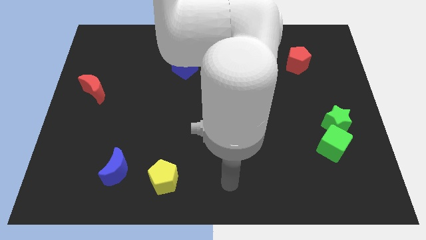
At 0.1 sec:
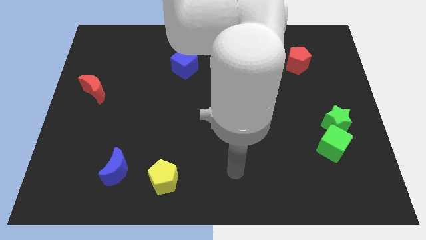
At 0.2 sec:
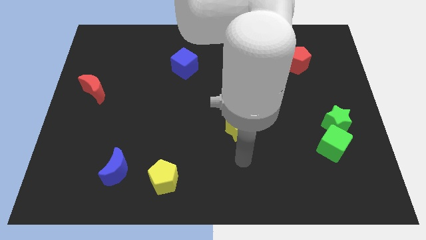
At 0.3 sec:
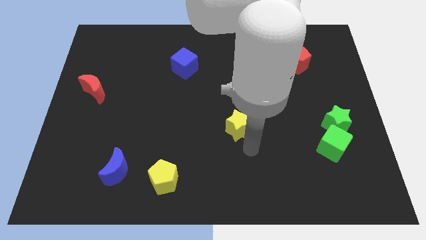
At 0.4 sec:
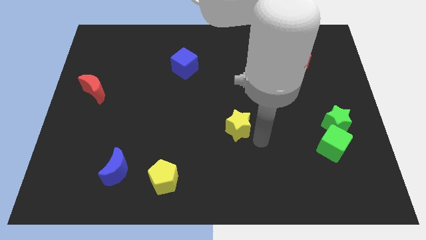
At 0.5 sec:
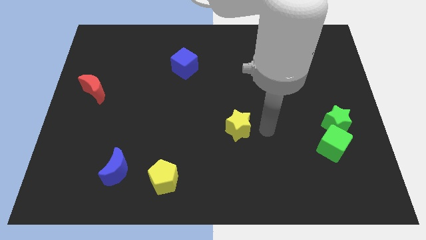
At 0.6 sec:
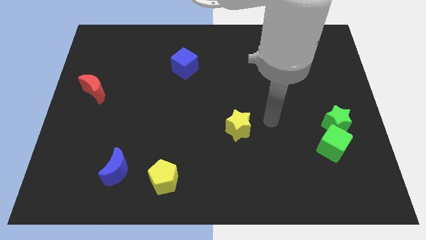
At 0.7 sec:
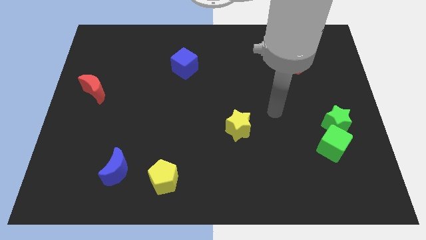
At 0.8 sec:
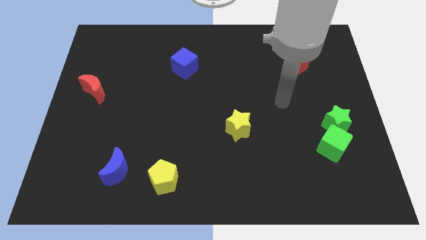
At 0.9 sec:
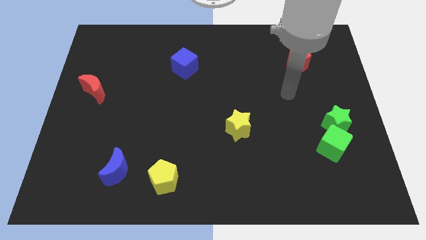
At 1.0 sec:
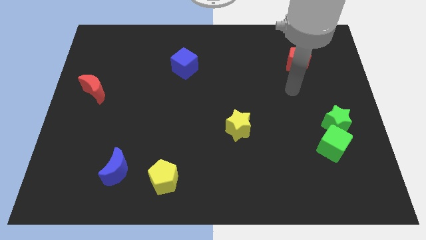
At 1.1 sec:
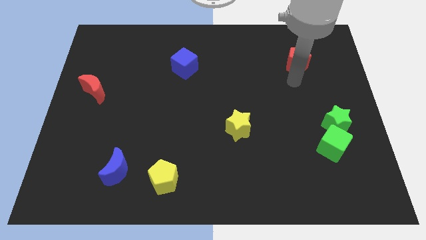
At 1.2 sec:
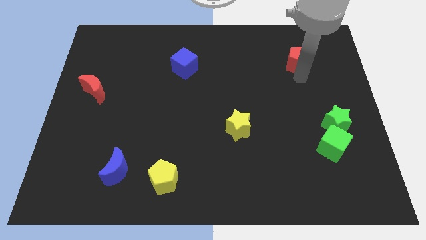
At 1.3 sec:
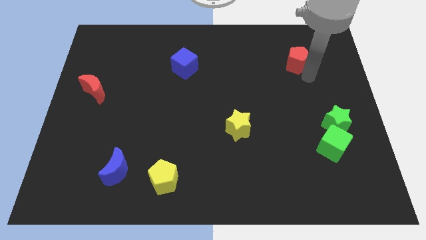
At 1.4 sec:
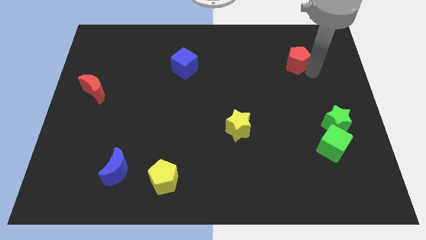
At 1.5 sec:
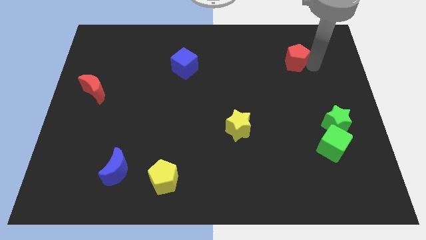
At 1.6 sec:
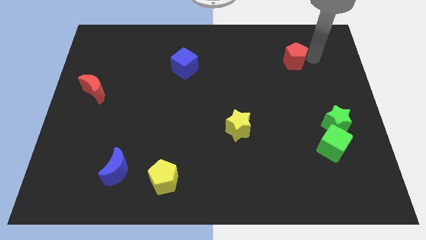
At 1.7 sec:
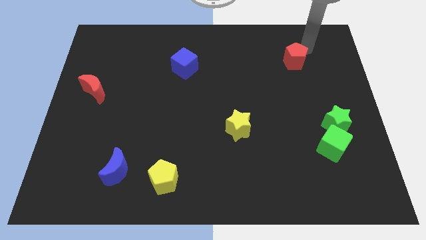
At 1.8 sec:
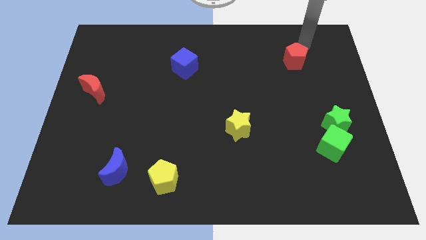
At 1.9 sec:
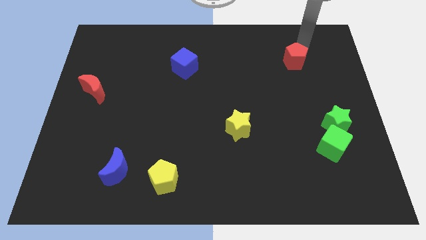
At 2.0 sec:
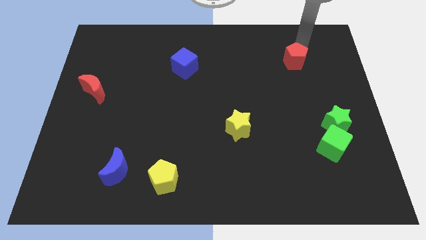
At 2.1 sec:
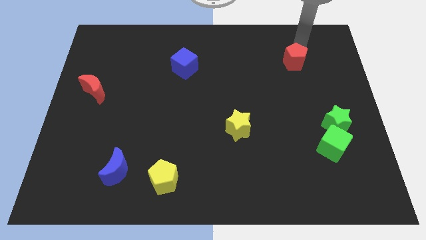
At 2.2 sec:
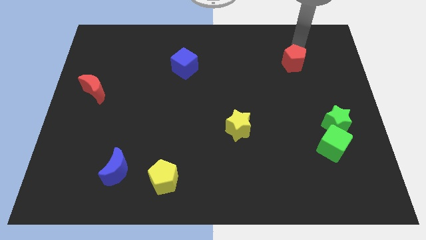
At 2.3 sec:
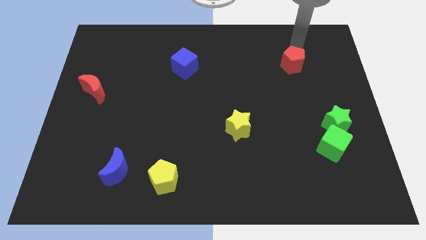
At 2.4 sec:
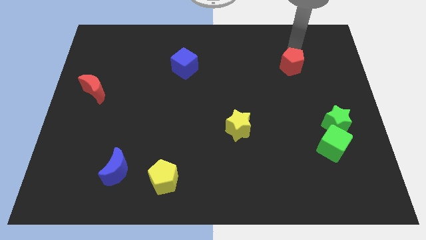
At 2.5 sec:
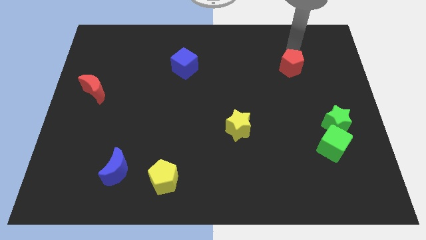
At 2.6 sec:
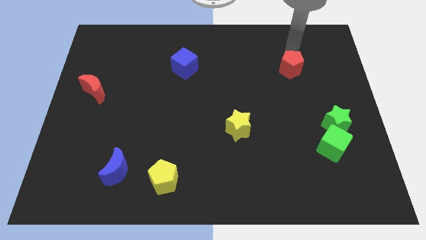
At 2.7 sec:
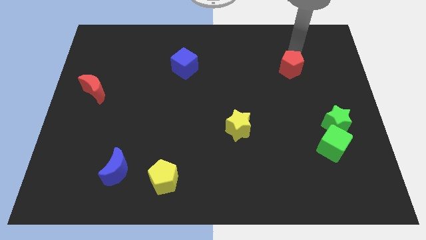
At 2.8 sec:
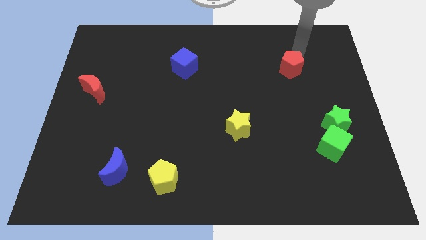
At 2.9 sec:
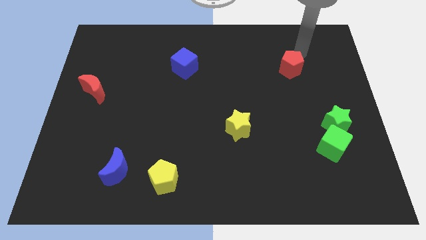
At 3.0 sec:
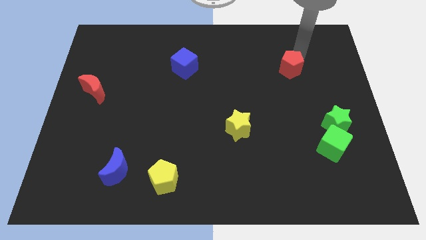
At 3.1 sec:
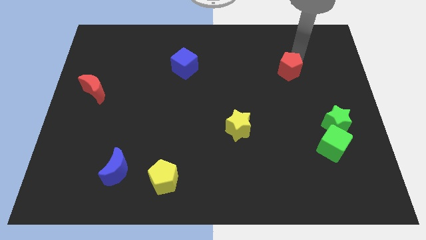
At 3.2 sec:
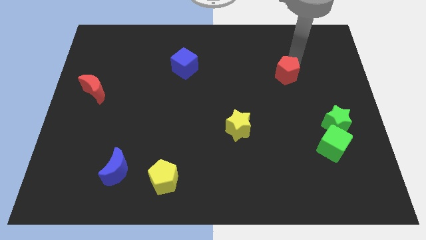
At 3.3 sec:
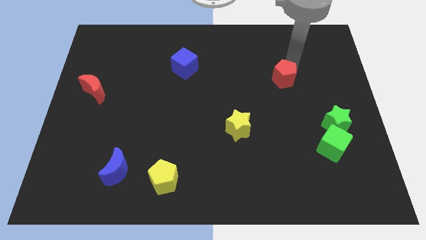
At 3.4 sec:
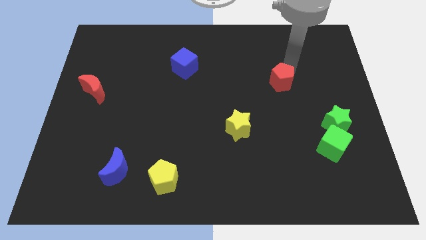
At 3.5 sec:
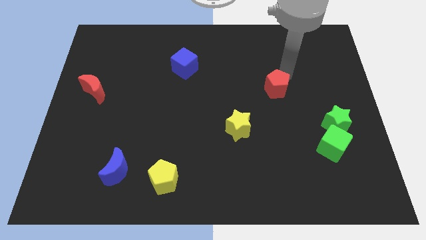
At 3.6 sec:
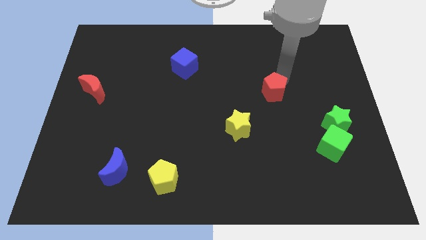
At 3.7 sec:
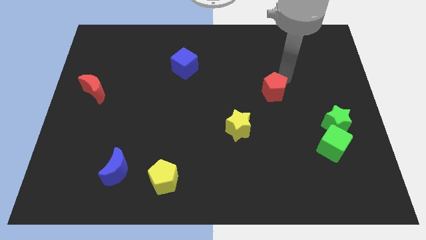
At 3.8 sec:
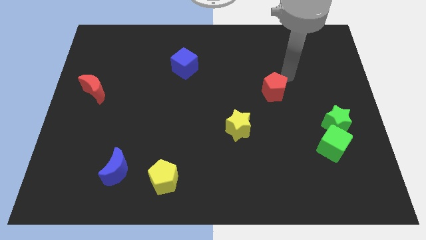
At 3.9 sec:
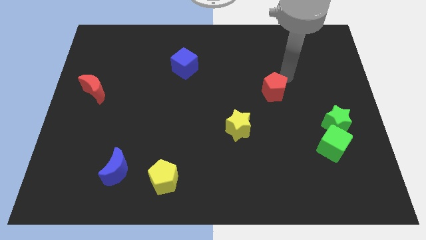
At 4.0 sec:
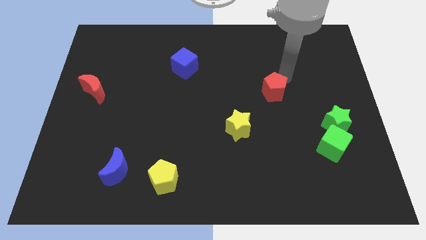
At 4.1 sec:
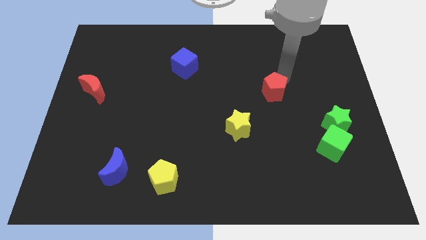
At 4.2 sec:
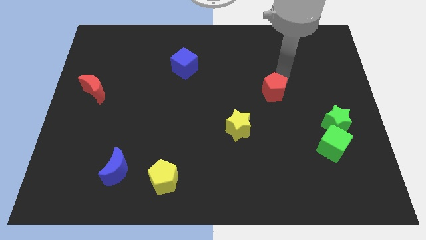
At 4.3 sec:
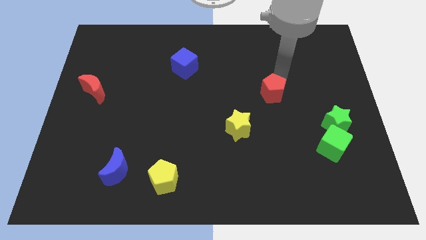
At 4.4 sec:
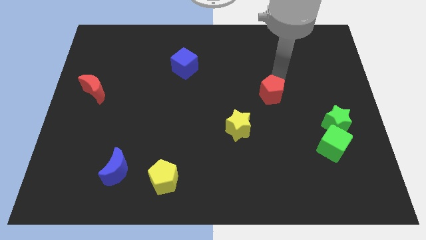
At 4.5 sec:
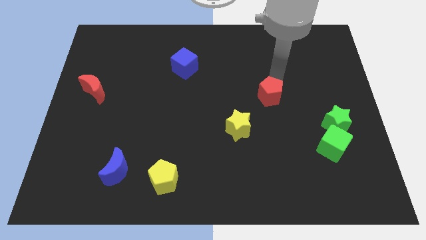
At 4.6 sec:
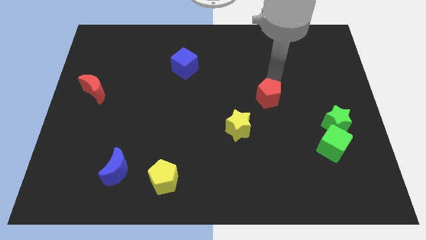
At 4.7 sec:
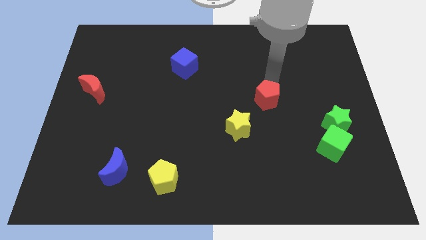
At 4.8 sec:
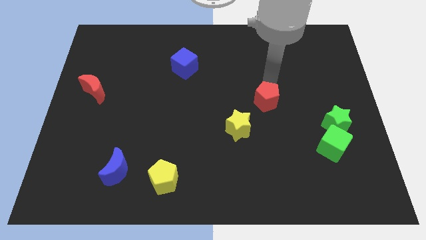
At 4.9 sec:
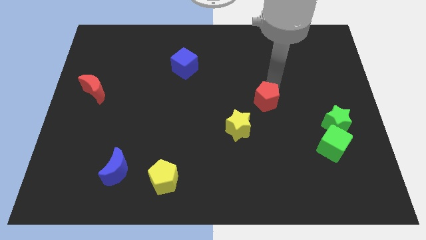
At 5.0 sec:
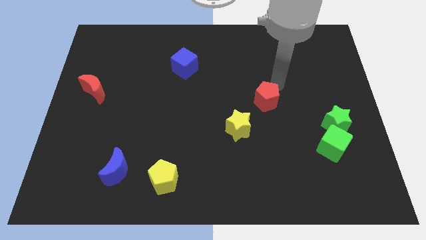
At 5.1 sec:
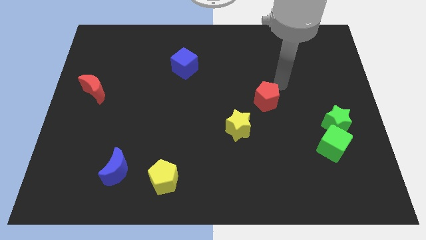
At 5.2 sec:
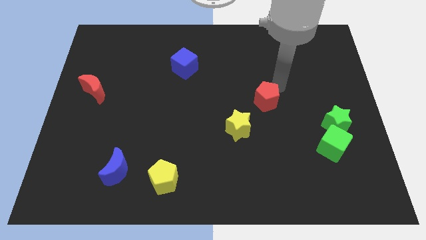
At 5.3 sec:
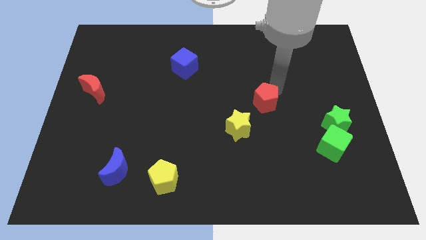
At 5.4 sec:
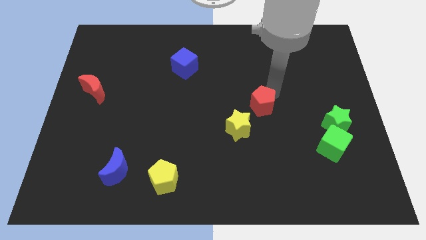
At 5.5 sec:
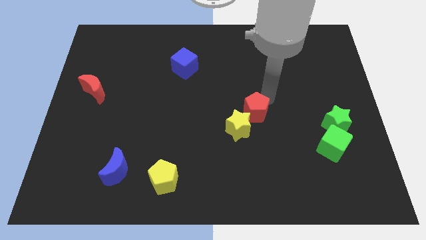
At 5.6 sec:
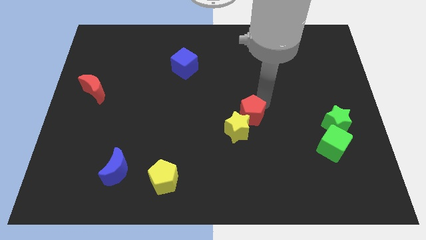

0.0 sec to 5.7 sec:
put the red pentagon next to the yellow star

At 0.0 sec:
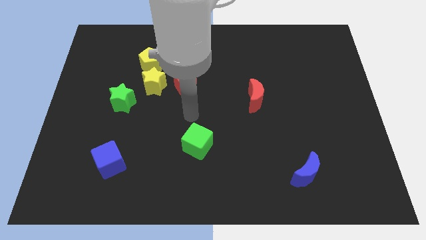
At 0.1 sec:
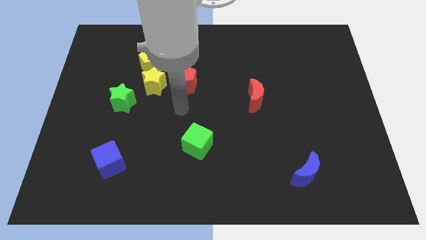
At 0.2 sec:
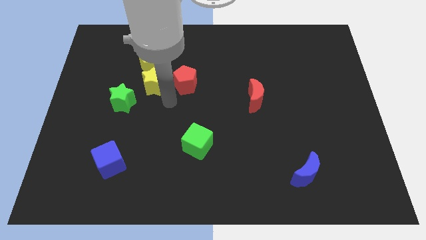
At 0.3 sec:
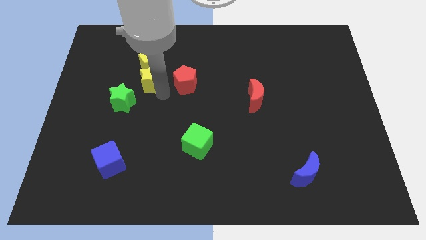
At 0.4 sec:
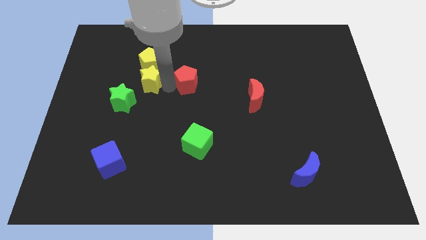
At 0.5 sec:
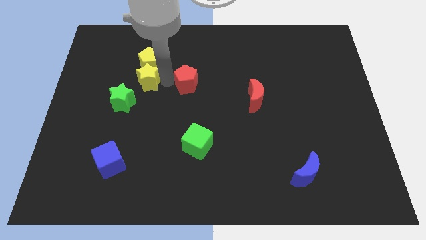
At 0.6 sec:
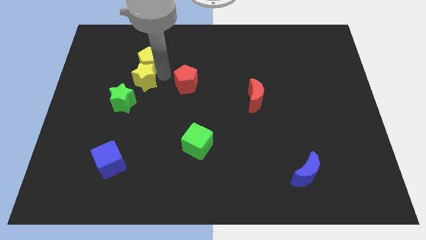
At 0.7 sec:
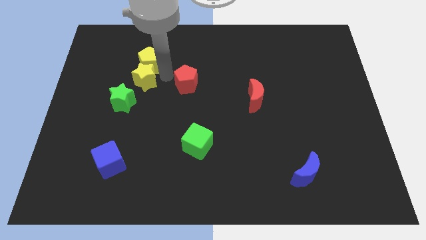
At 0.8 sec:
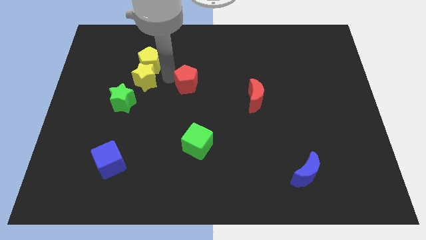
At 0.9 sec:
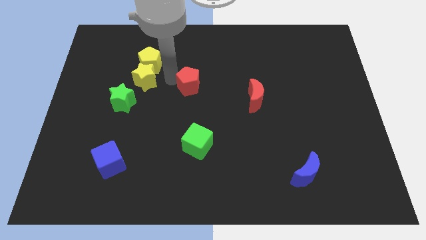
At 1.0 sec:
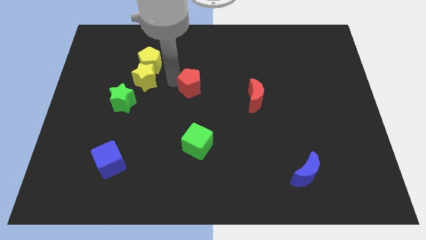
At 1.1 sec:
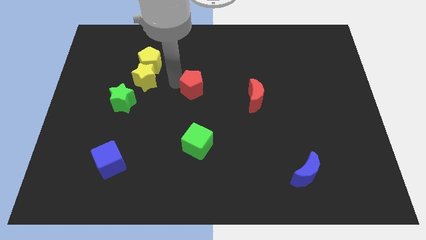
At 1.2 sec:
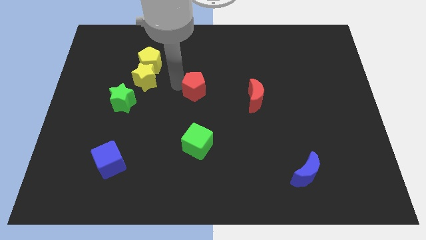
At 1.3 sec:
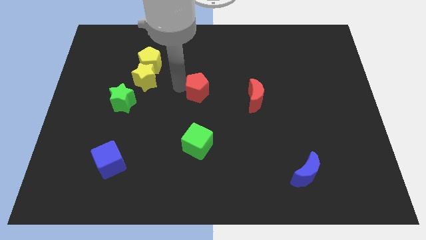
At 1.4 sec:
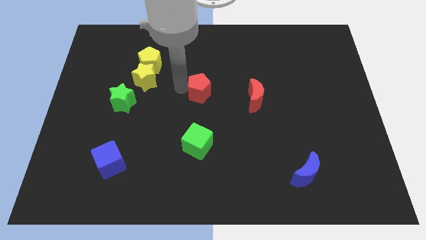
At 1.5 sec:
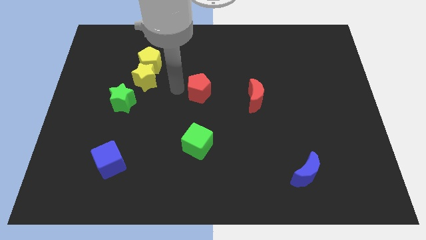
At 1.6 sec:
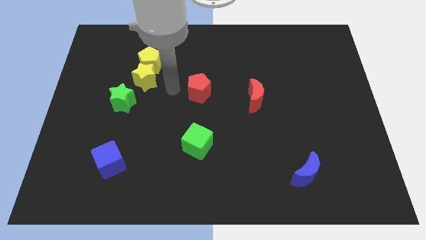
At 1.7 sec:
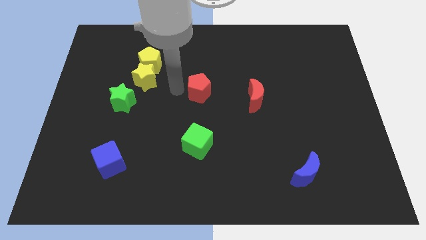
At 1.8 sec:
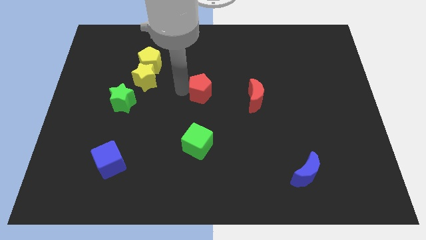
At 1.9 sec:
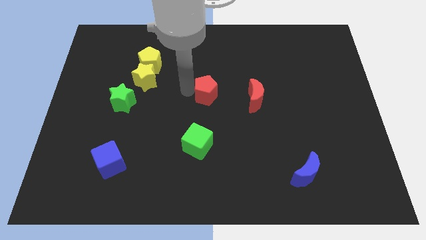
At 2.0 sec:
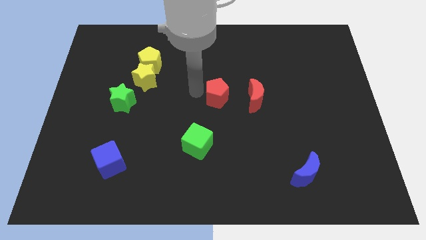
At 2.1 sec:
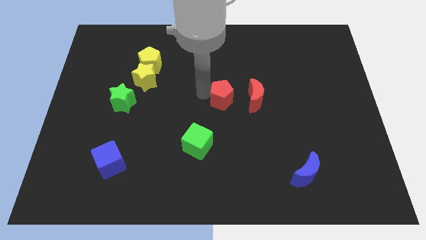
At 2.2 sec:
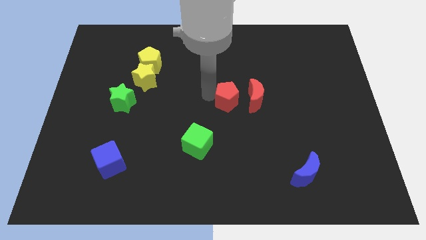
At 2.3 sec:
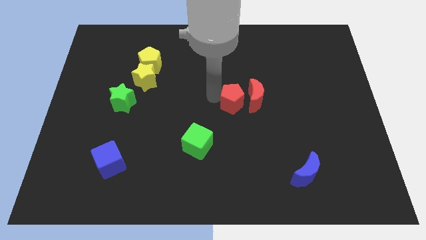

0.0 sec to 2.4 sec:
push the red pentagon towards the red moon

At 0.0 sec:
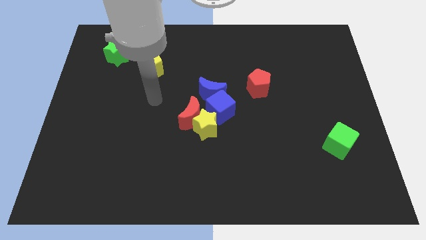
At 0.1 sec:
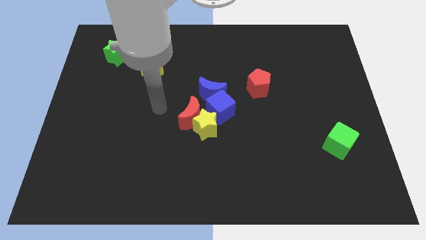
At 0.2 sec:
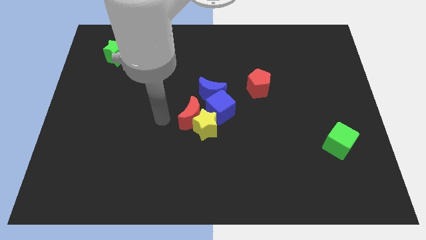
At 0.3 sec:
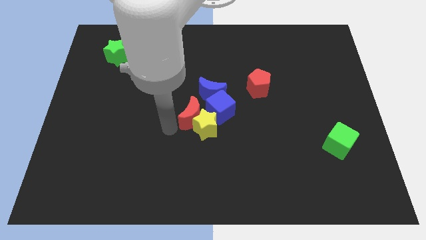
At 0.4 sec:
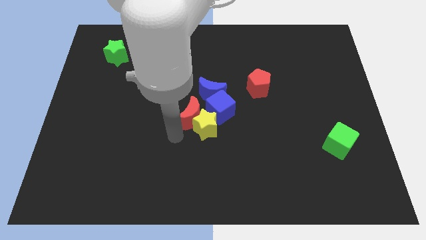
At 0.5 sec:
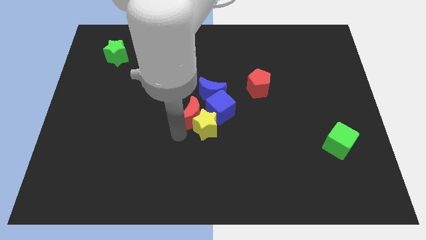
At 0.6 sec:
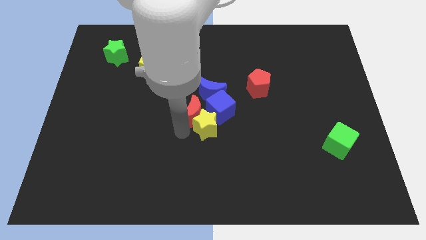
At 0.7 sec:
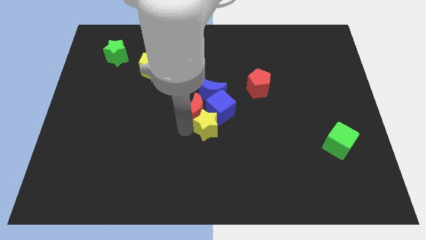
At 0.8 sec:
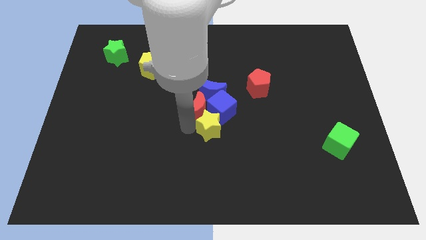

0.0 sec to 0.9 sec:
slide the red moon to the blue moon
